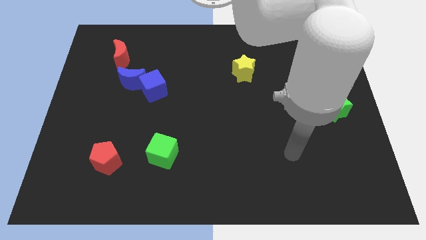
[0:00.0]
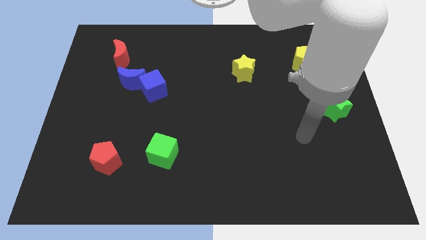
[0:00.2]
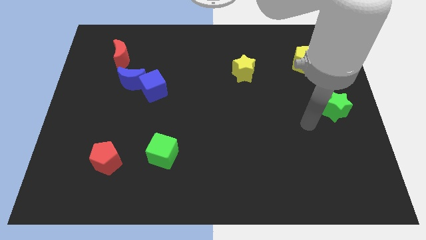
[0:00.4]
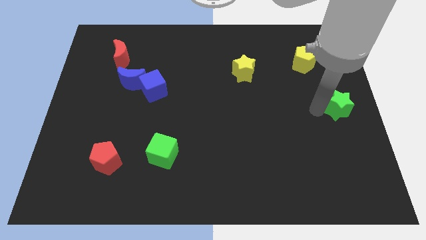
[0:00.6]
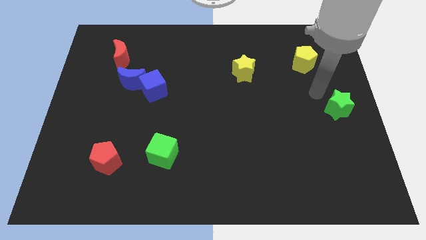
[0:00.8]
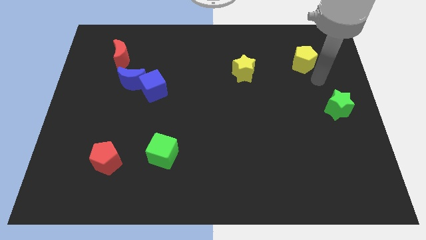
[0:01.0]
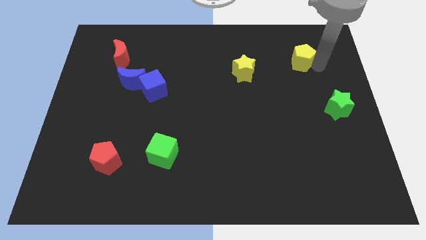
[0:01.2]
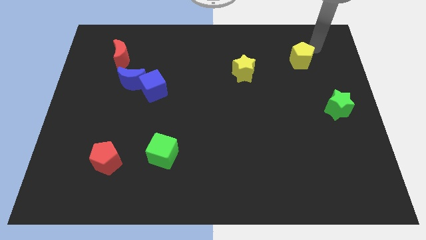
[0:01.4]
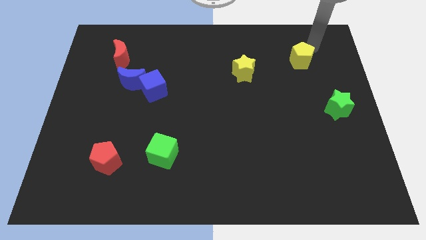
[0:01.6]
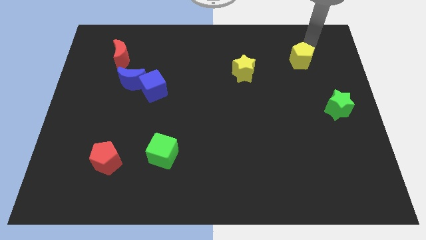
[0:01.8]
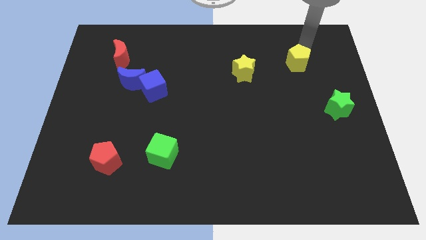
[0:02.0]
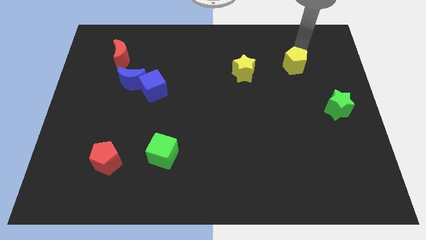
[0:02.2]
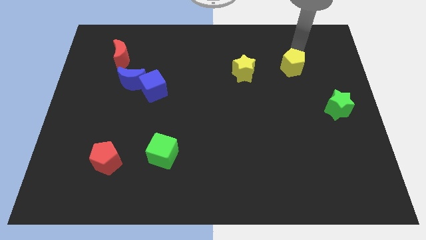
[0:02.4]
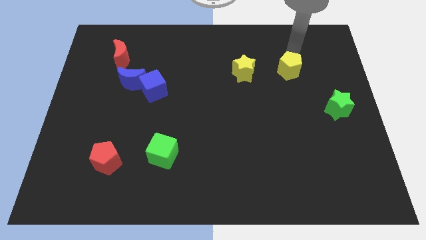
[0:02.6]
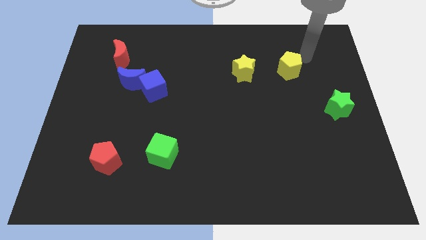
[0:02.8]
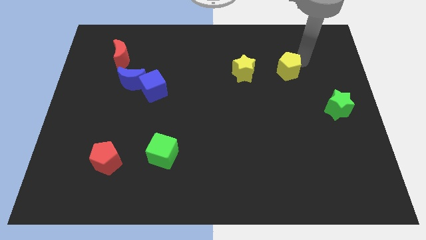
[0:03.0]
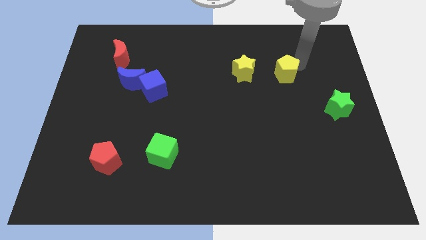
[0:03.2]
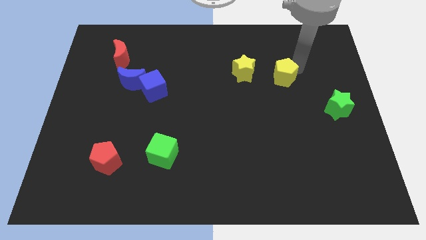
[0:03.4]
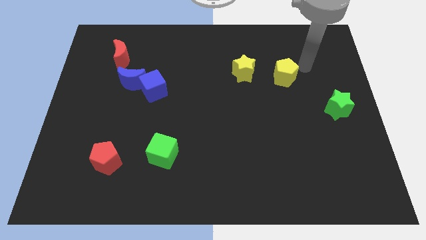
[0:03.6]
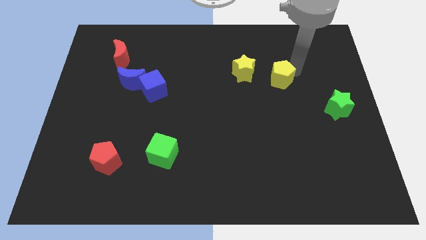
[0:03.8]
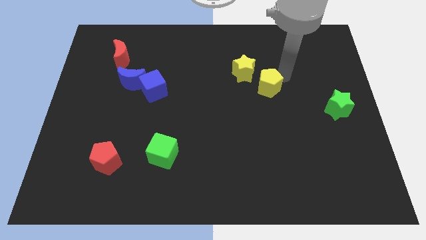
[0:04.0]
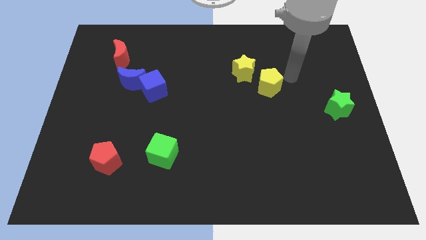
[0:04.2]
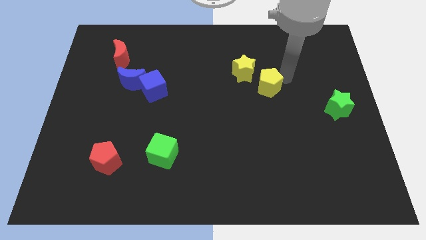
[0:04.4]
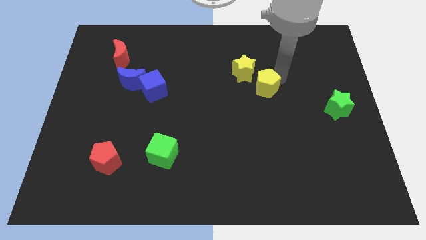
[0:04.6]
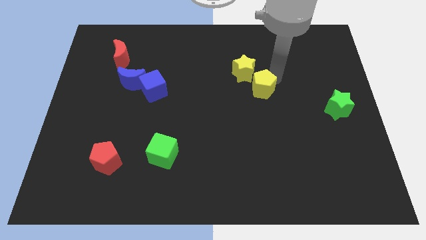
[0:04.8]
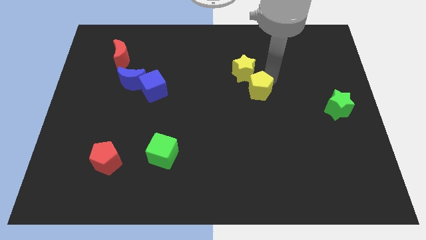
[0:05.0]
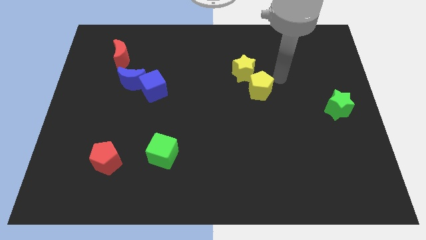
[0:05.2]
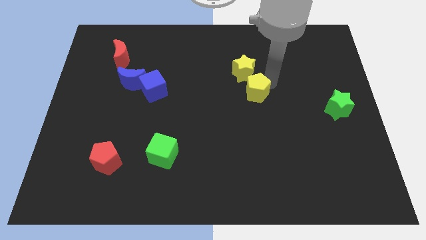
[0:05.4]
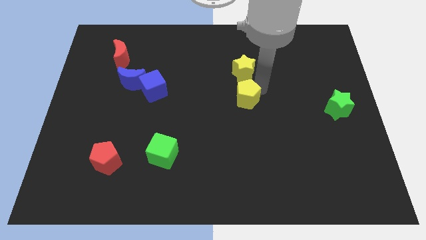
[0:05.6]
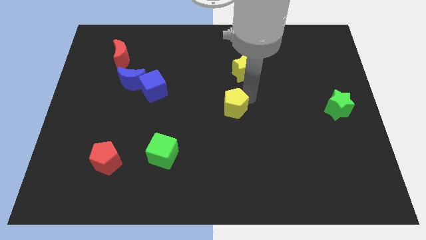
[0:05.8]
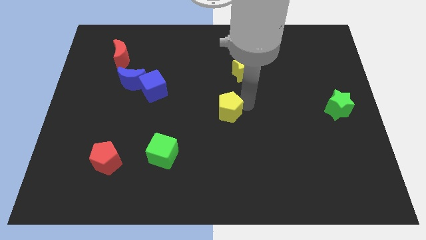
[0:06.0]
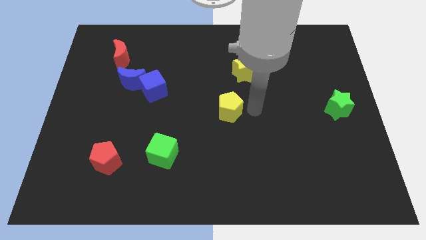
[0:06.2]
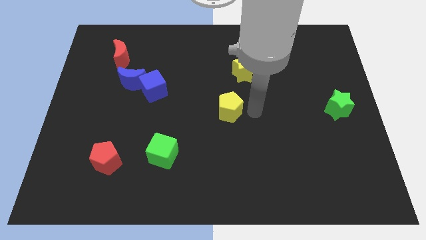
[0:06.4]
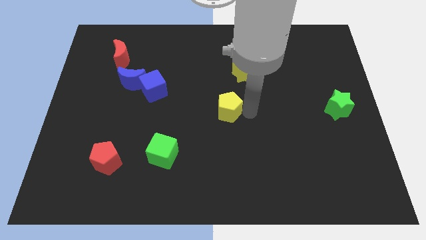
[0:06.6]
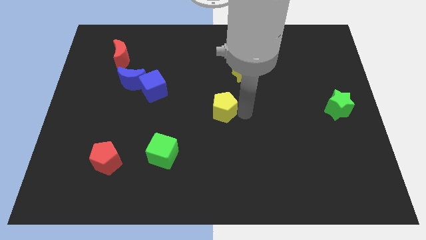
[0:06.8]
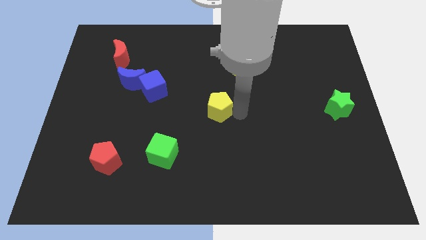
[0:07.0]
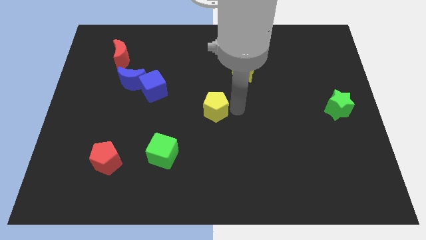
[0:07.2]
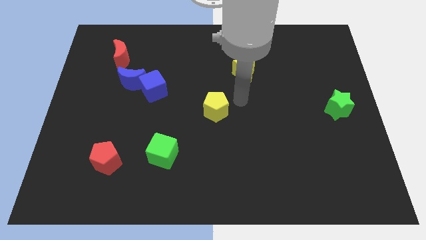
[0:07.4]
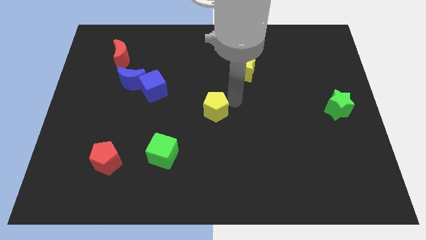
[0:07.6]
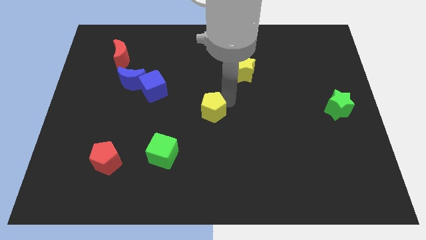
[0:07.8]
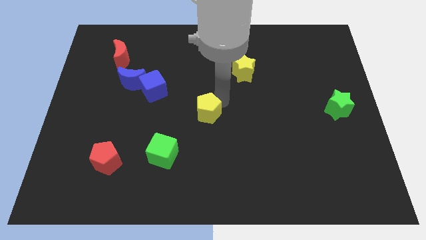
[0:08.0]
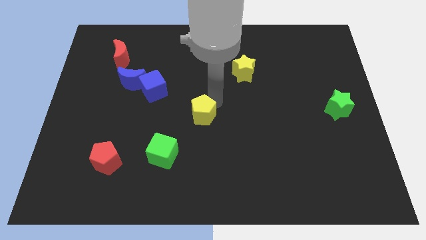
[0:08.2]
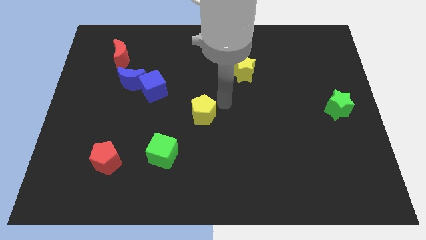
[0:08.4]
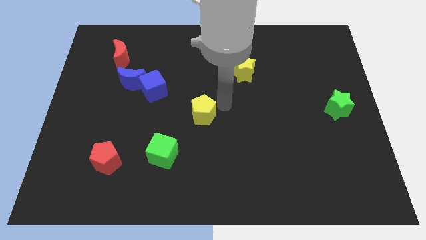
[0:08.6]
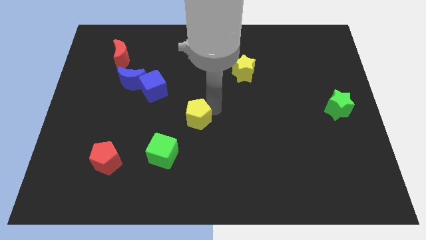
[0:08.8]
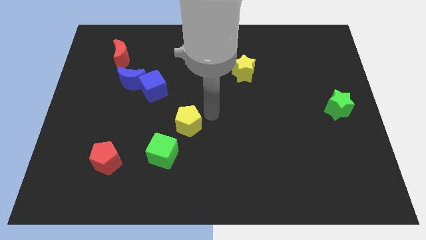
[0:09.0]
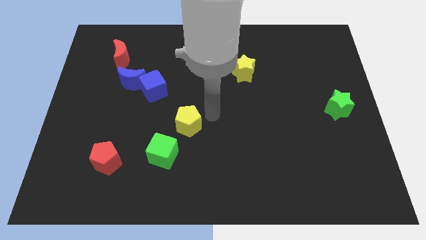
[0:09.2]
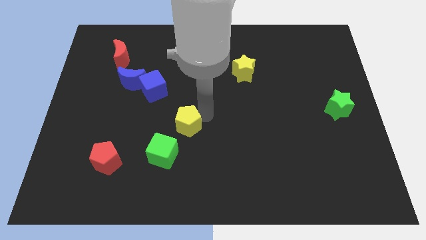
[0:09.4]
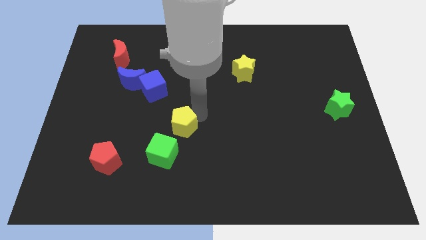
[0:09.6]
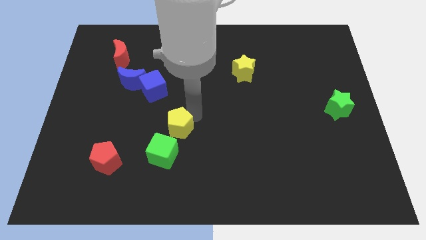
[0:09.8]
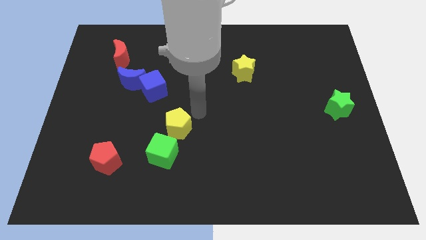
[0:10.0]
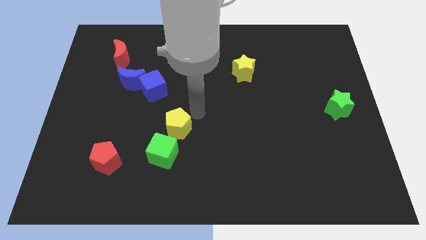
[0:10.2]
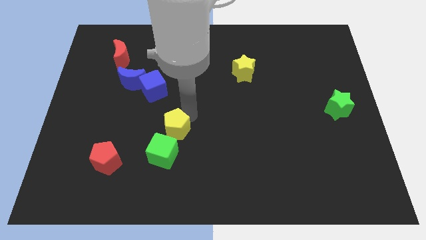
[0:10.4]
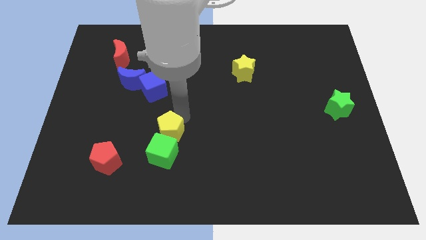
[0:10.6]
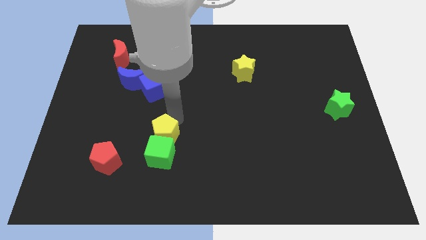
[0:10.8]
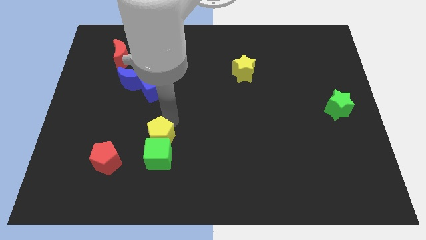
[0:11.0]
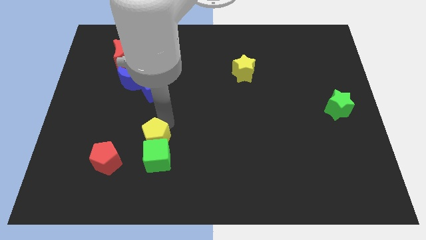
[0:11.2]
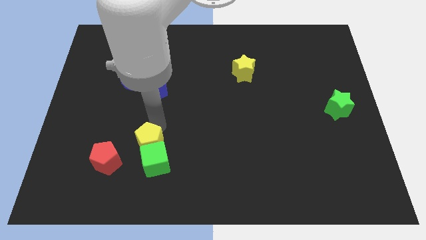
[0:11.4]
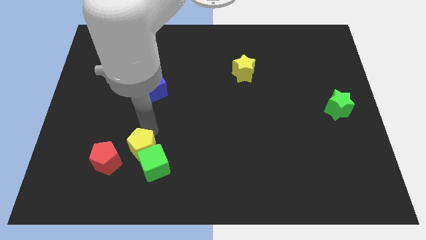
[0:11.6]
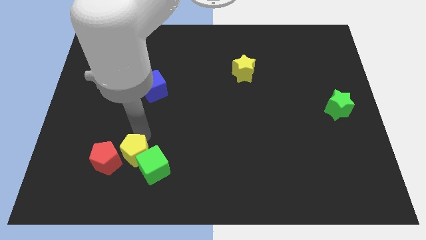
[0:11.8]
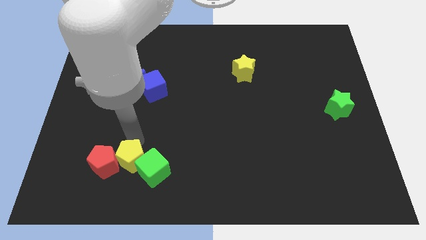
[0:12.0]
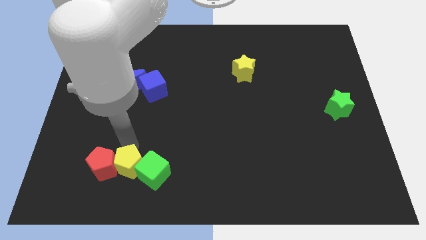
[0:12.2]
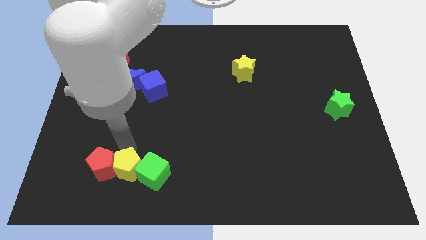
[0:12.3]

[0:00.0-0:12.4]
push the yellow pentagon diagonally down and to the left of the green cube

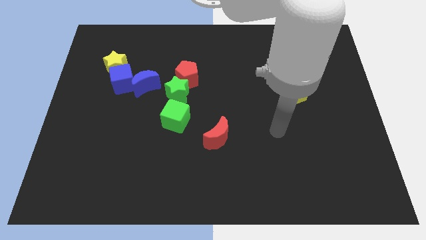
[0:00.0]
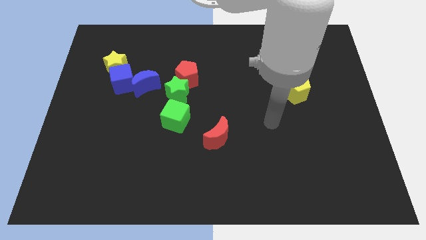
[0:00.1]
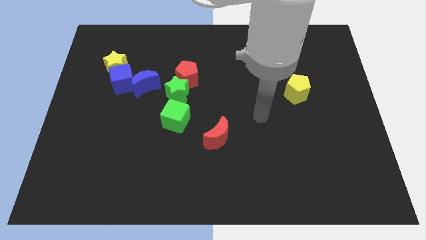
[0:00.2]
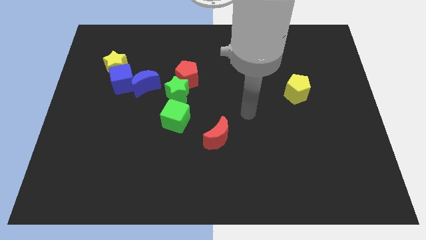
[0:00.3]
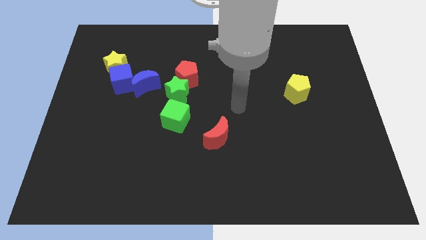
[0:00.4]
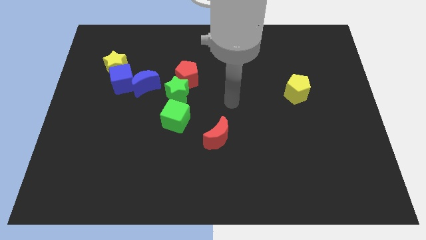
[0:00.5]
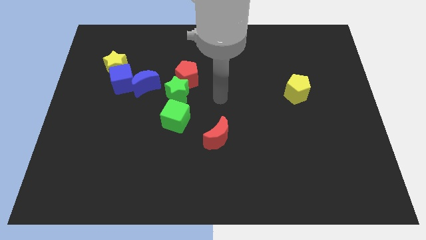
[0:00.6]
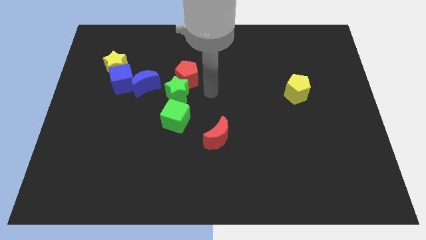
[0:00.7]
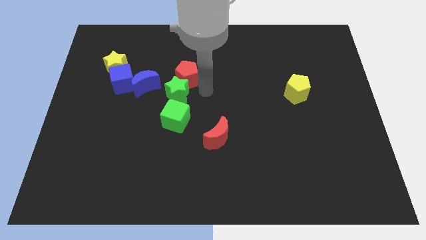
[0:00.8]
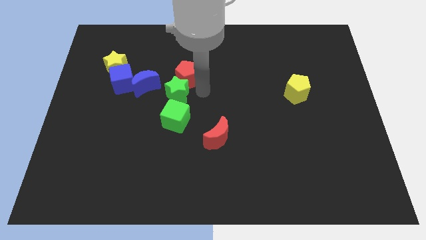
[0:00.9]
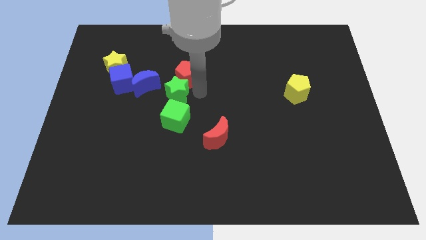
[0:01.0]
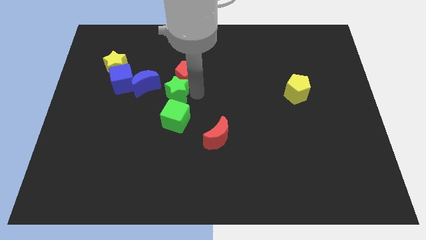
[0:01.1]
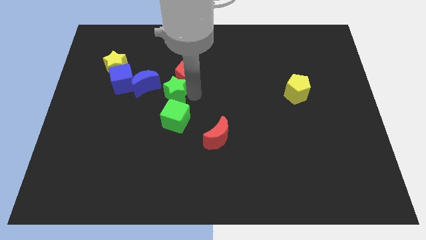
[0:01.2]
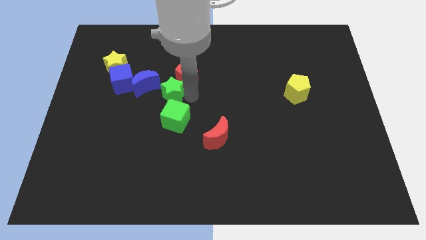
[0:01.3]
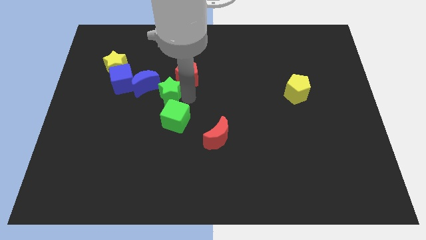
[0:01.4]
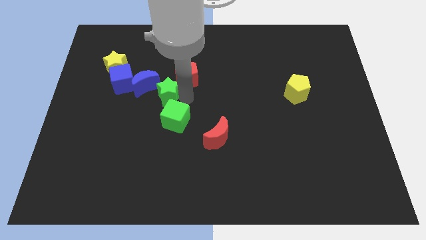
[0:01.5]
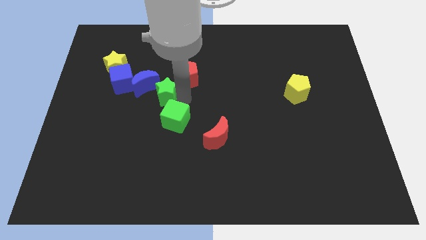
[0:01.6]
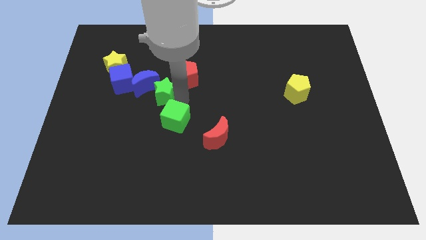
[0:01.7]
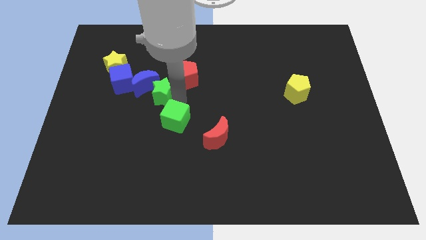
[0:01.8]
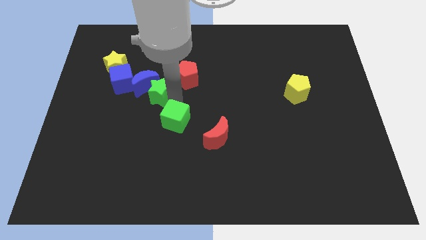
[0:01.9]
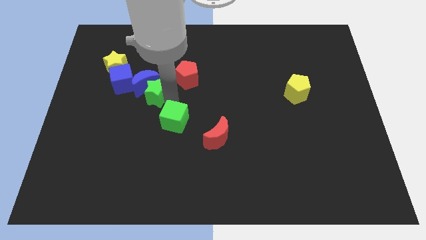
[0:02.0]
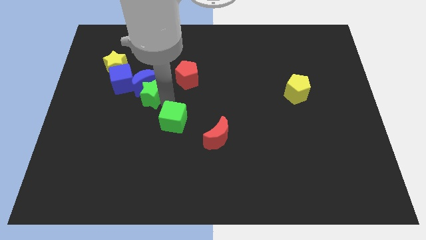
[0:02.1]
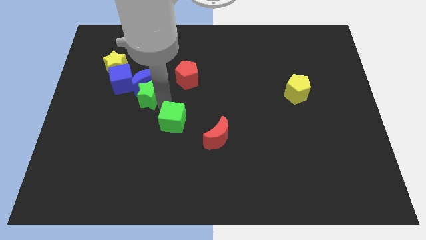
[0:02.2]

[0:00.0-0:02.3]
put the green star to the bottom left side of the blue moon
